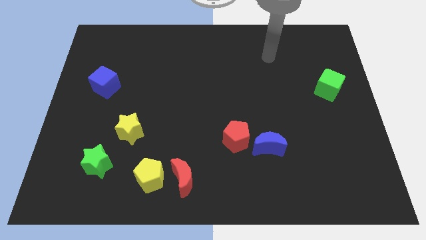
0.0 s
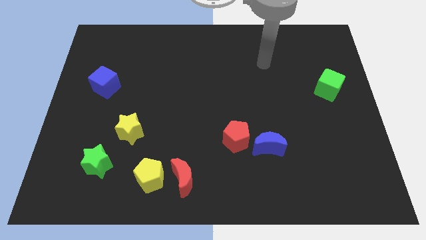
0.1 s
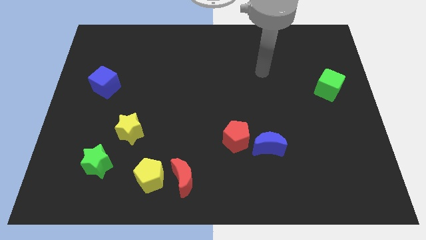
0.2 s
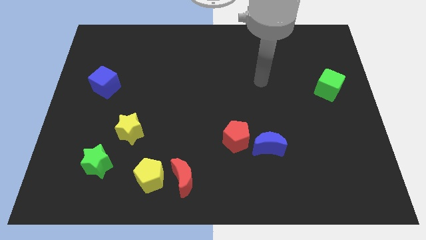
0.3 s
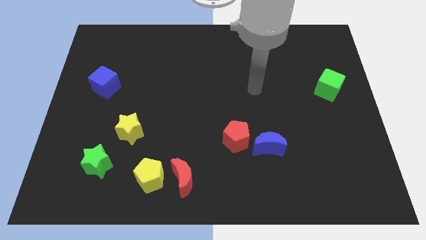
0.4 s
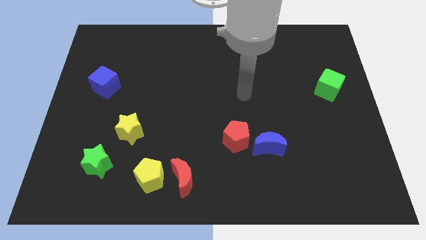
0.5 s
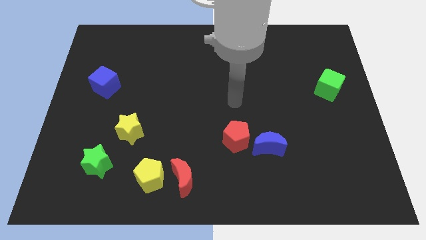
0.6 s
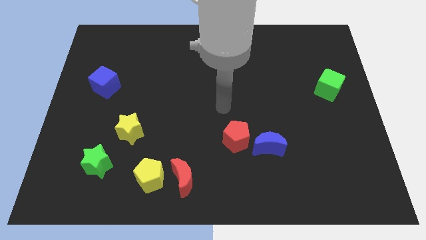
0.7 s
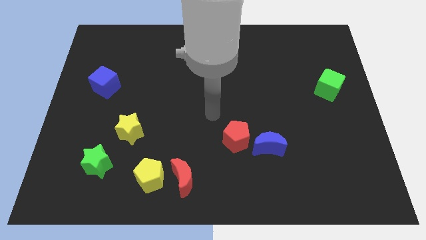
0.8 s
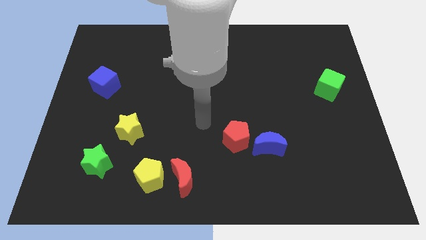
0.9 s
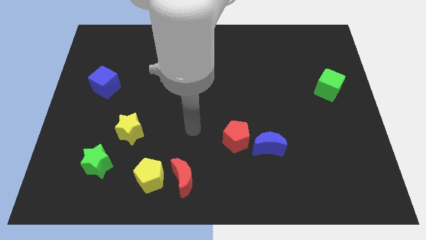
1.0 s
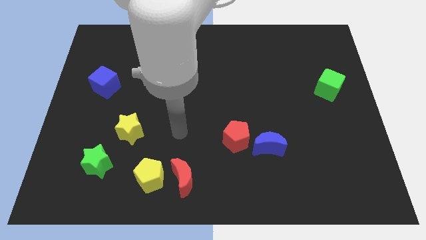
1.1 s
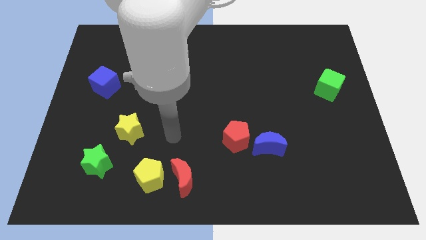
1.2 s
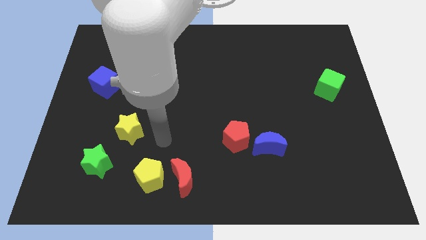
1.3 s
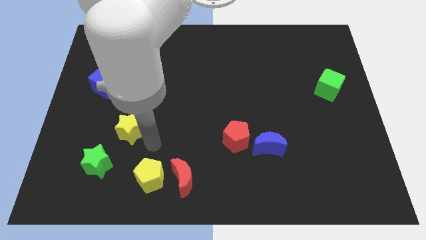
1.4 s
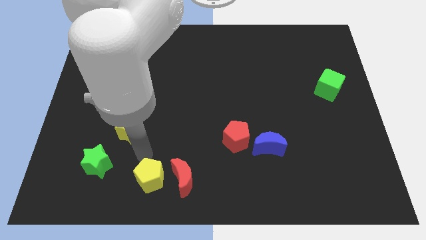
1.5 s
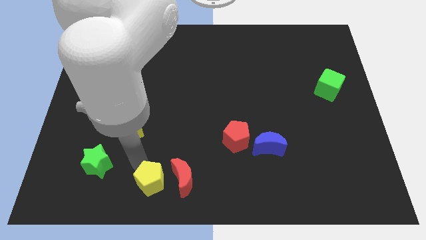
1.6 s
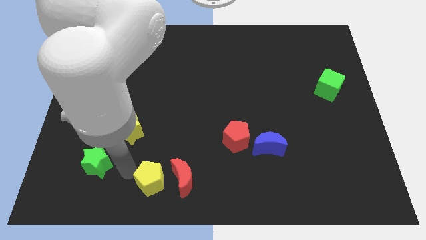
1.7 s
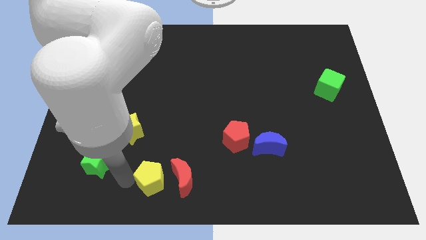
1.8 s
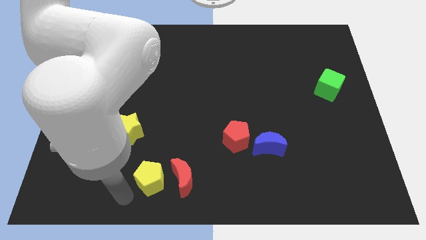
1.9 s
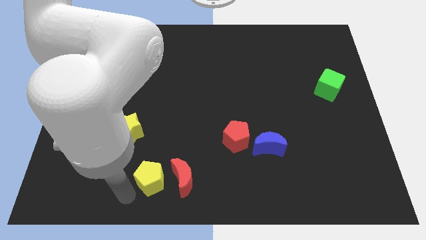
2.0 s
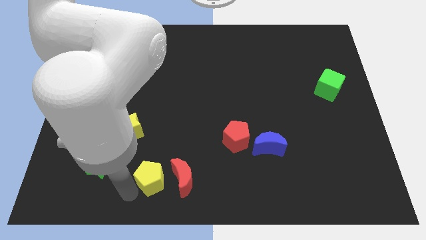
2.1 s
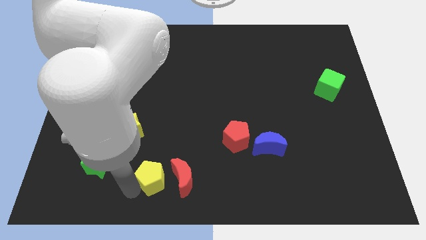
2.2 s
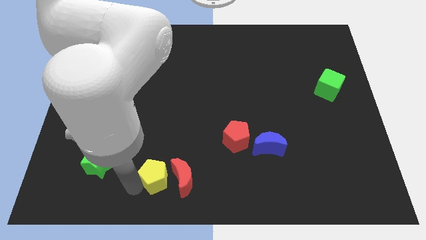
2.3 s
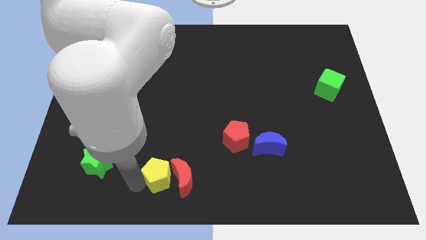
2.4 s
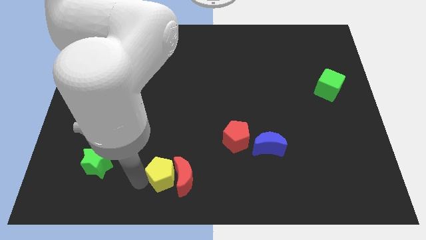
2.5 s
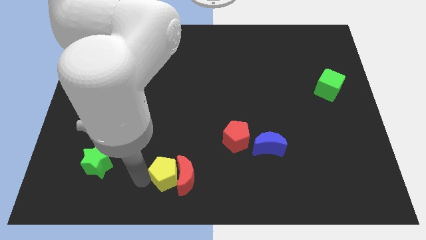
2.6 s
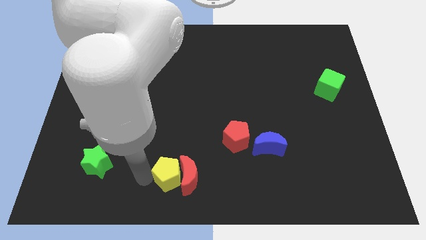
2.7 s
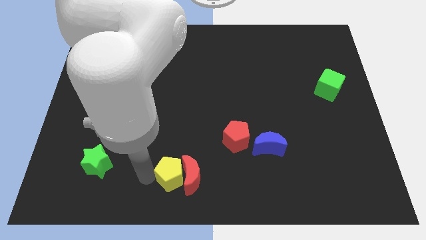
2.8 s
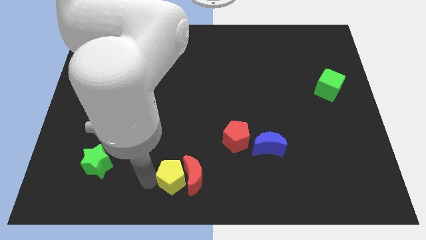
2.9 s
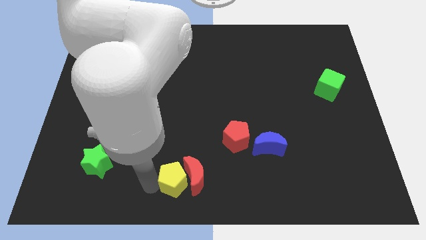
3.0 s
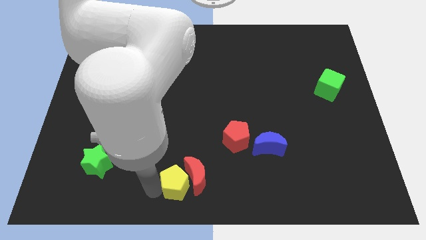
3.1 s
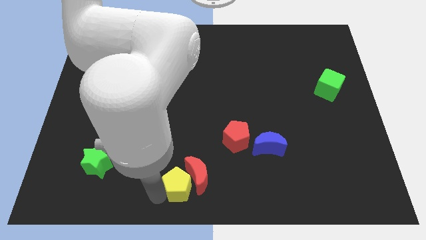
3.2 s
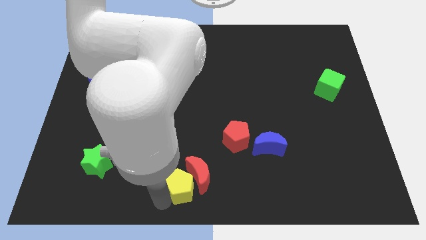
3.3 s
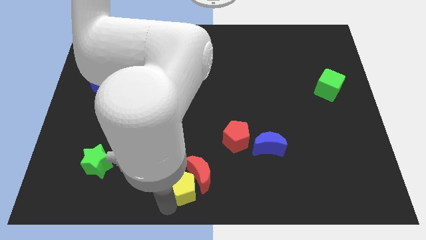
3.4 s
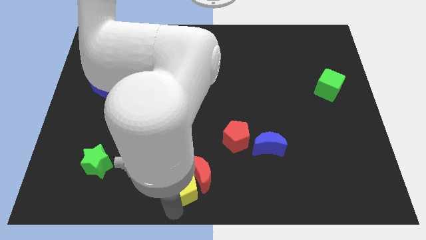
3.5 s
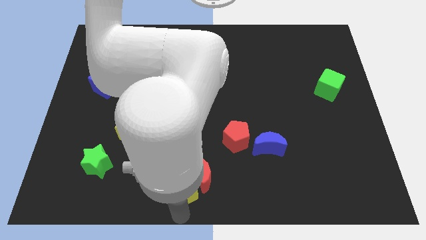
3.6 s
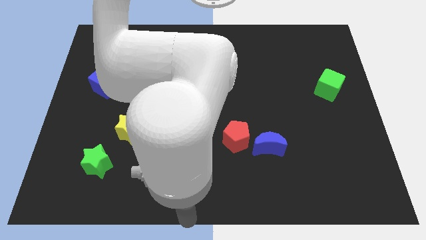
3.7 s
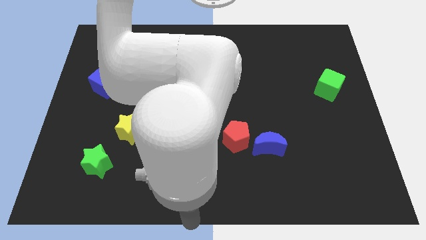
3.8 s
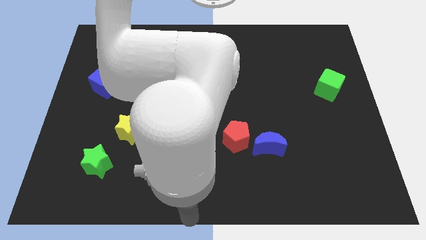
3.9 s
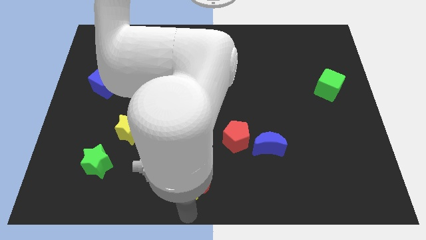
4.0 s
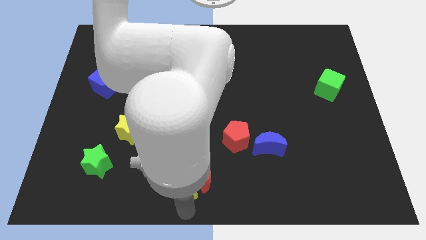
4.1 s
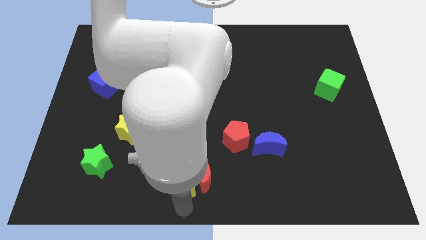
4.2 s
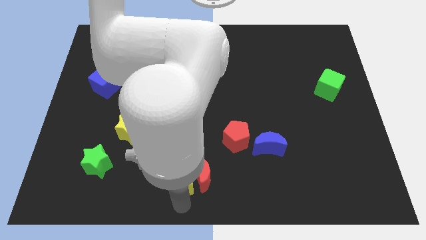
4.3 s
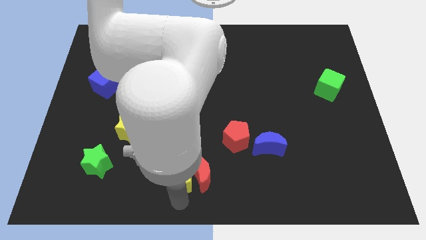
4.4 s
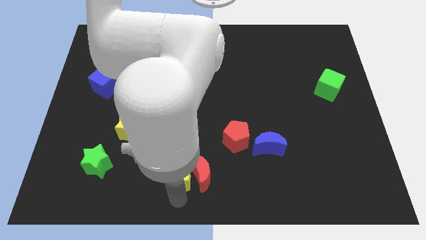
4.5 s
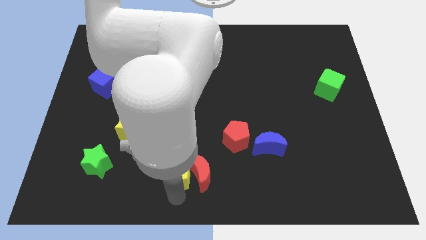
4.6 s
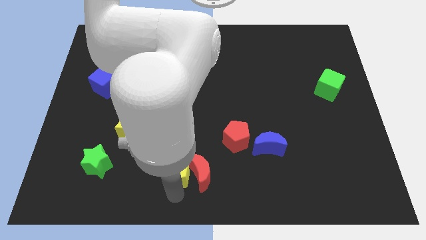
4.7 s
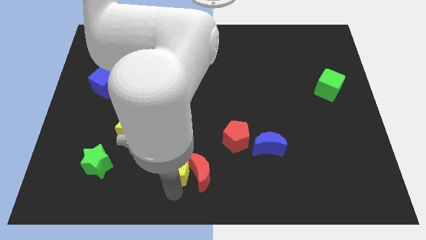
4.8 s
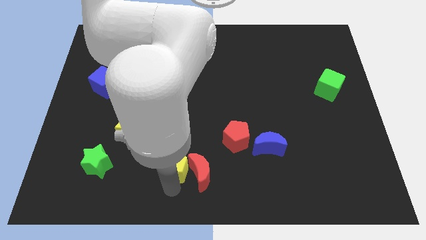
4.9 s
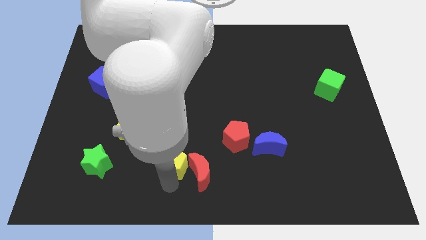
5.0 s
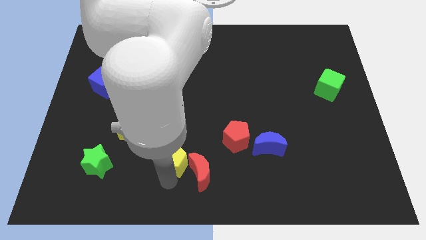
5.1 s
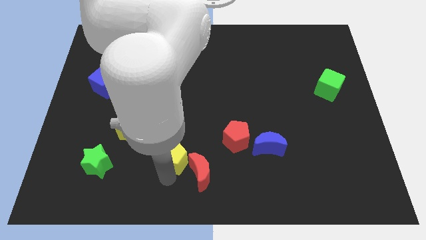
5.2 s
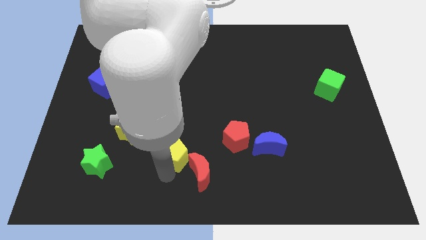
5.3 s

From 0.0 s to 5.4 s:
move the yellow pentagon just left of the red pentagon

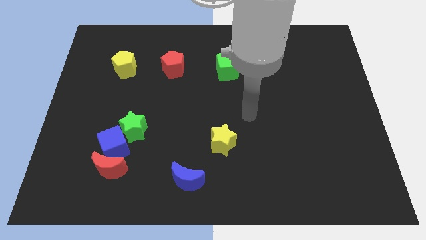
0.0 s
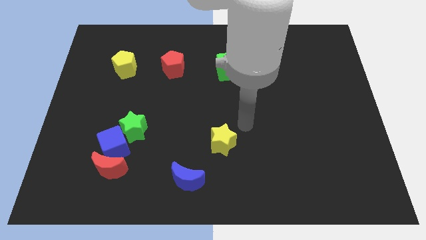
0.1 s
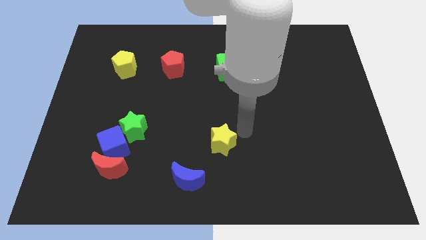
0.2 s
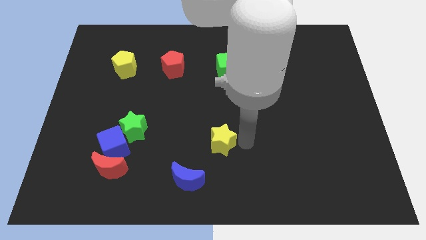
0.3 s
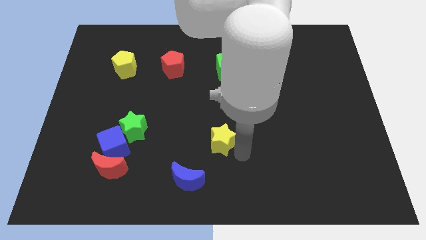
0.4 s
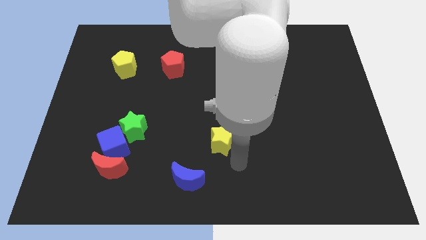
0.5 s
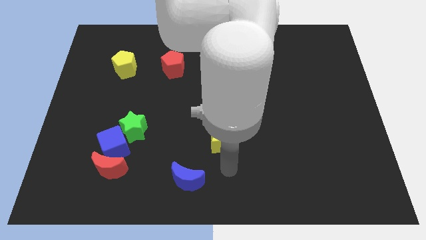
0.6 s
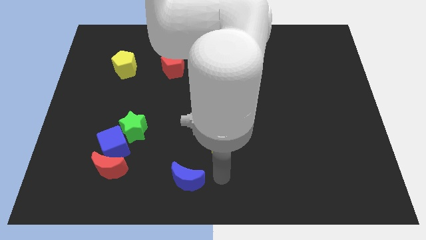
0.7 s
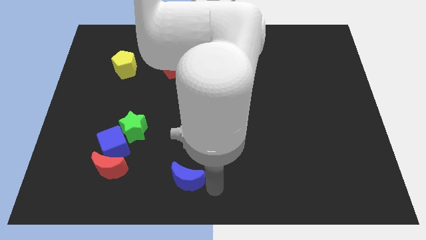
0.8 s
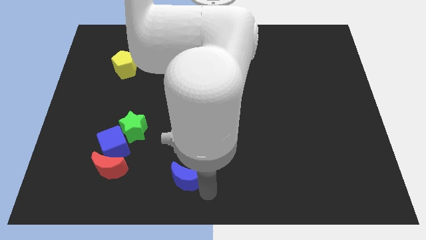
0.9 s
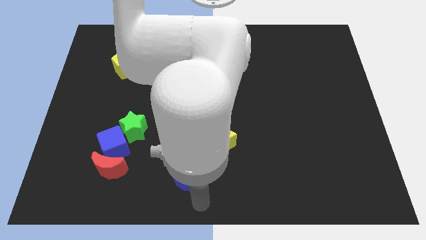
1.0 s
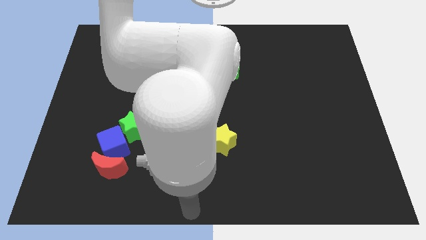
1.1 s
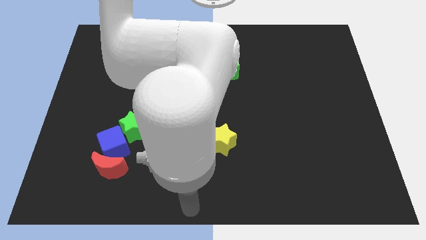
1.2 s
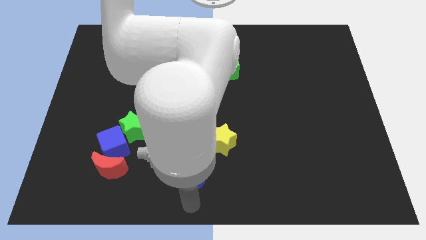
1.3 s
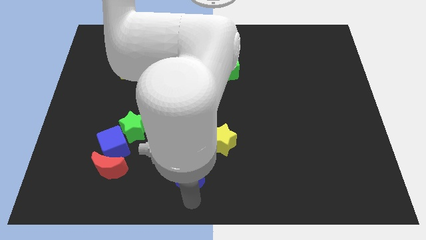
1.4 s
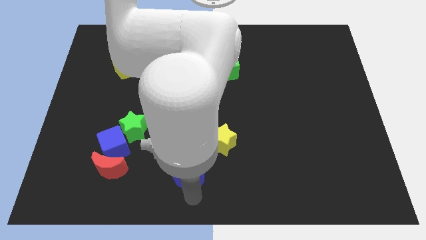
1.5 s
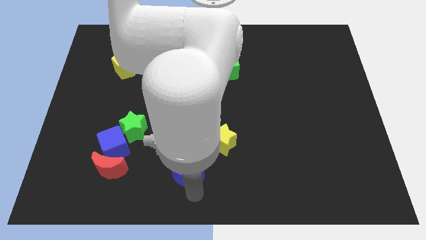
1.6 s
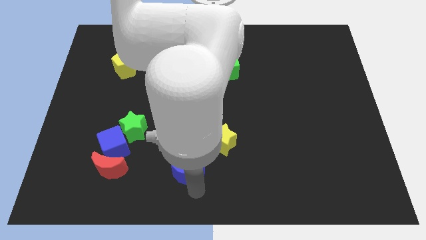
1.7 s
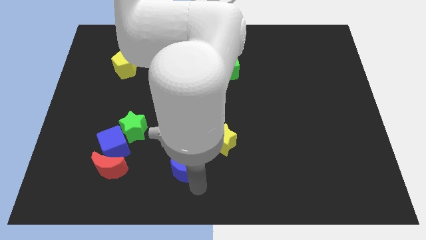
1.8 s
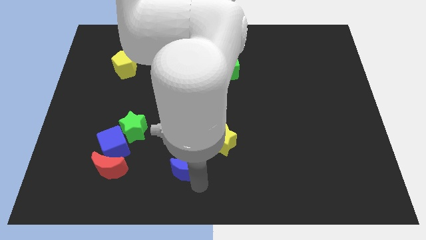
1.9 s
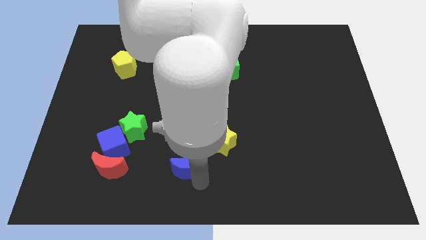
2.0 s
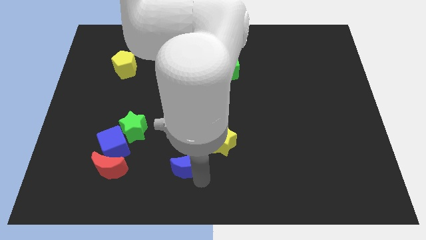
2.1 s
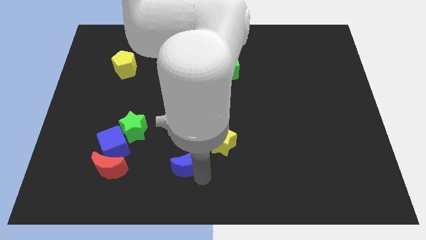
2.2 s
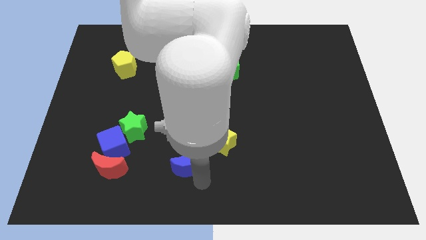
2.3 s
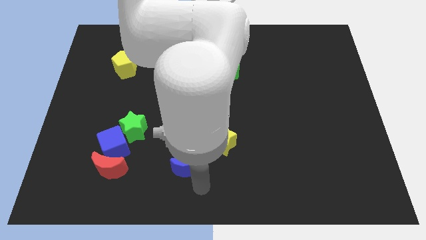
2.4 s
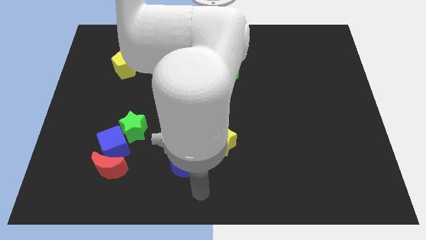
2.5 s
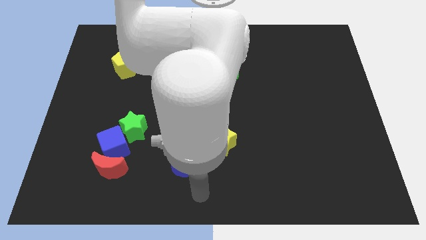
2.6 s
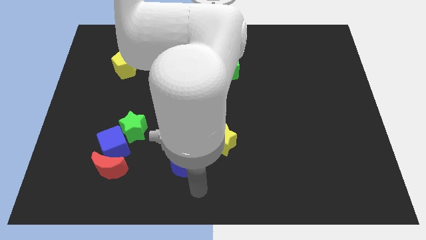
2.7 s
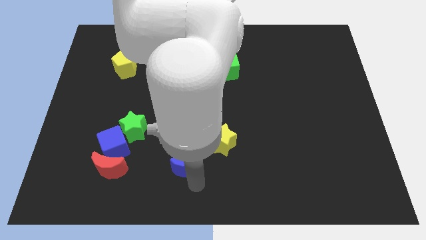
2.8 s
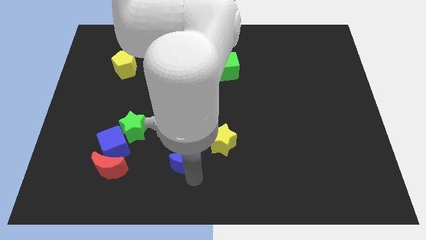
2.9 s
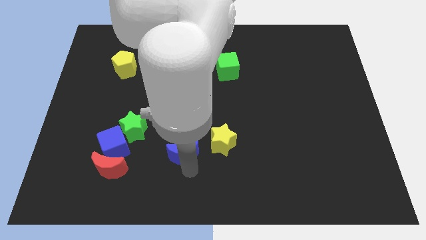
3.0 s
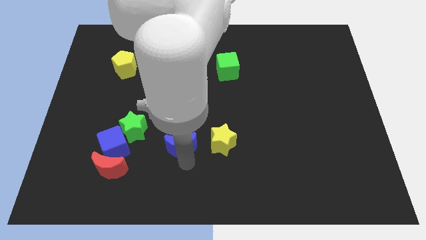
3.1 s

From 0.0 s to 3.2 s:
push the blue moon just right of the green star
